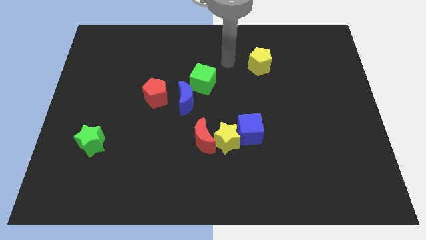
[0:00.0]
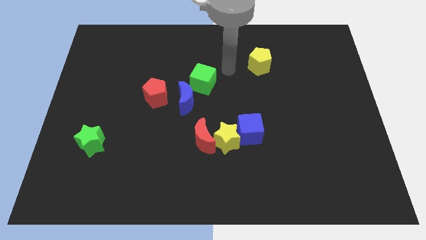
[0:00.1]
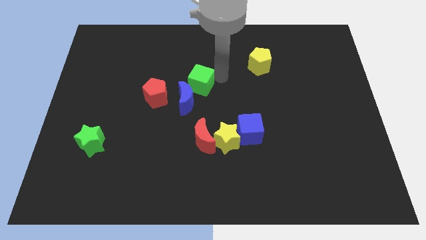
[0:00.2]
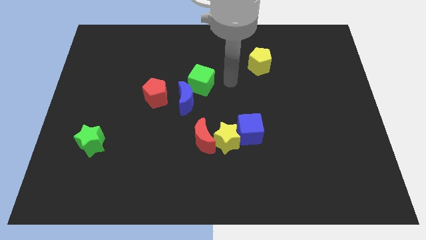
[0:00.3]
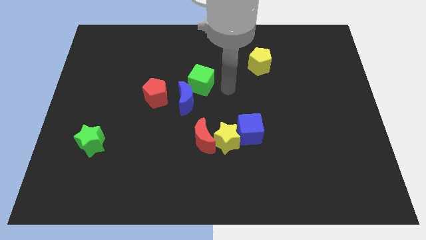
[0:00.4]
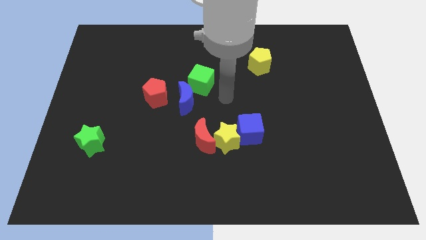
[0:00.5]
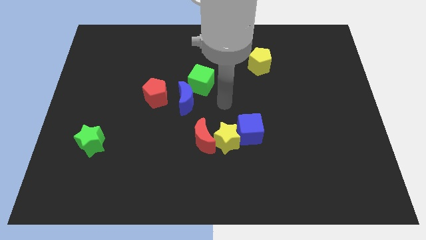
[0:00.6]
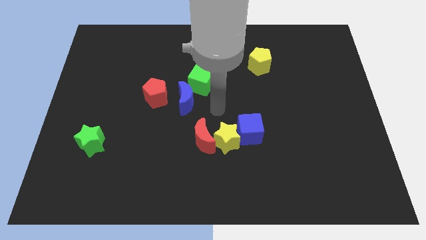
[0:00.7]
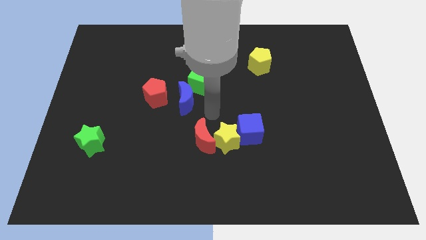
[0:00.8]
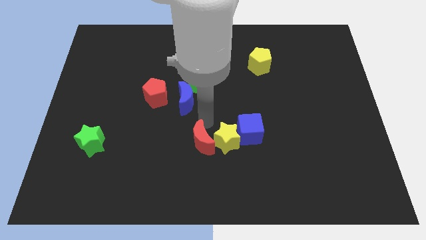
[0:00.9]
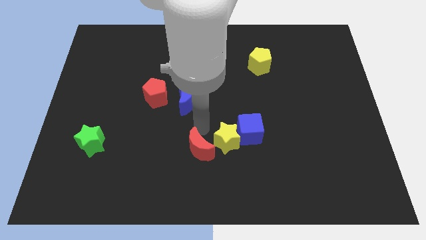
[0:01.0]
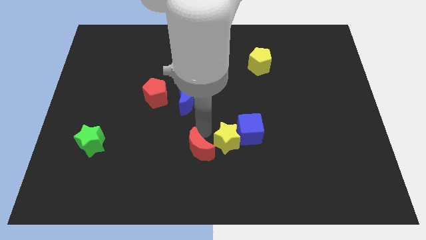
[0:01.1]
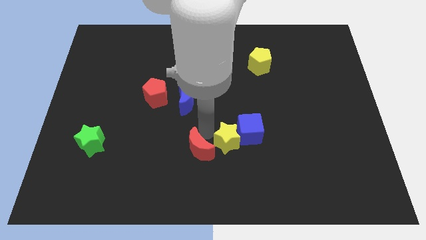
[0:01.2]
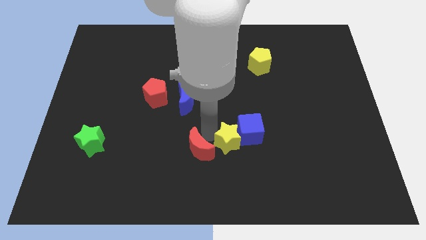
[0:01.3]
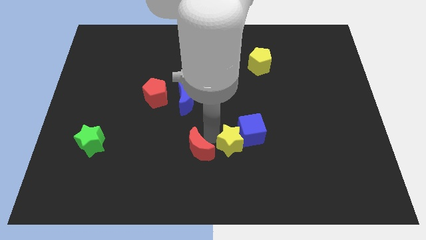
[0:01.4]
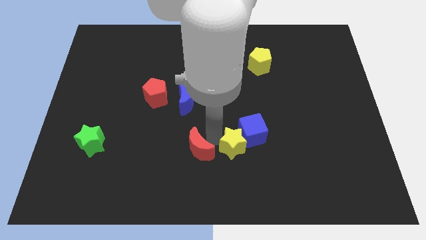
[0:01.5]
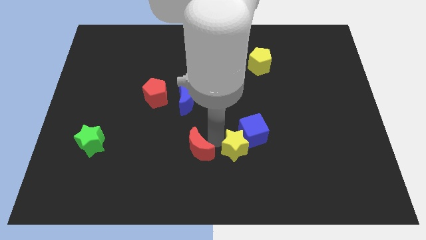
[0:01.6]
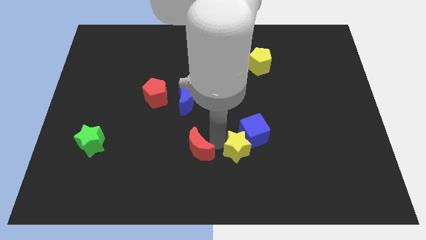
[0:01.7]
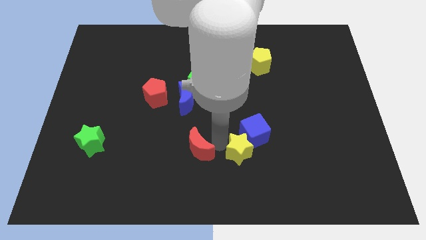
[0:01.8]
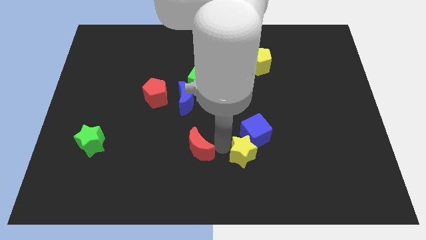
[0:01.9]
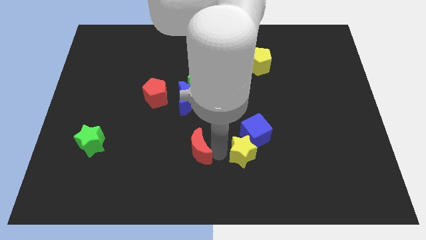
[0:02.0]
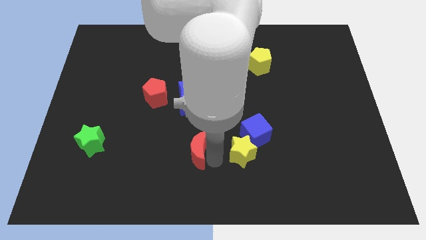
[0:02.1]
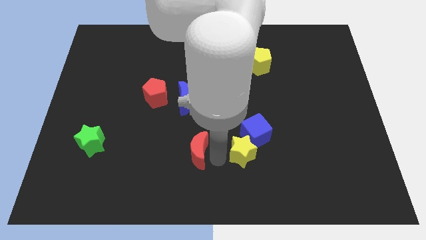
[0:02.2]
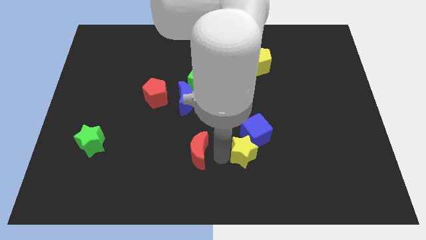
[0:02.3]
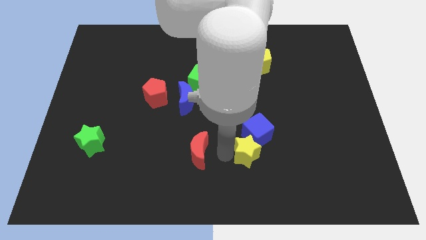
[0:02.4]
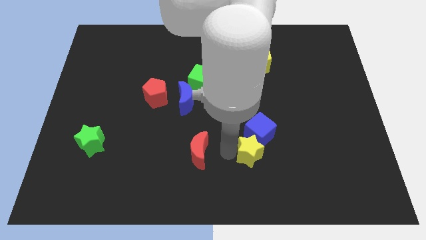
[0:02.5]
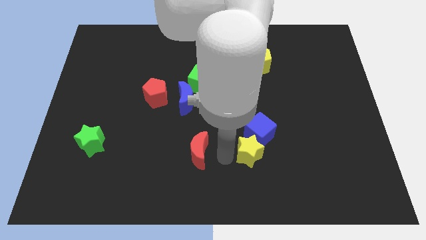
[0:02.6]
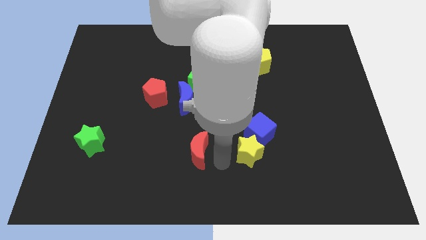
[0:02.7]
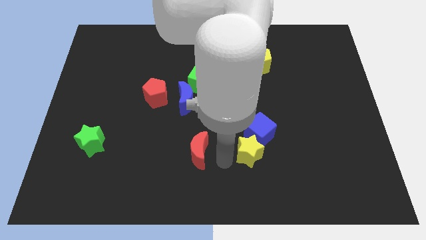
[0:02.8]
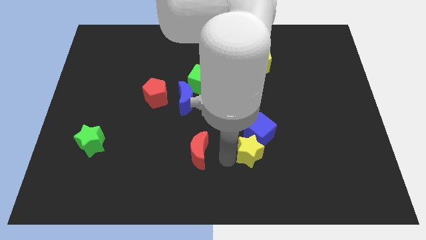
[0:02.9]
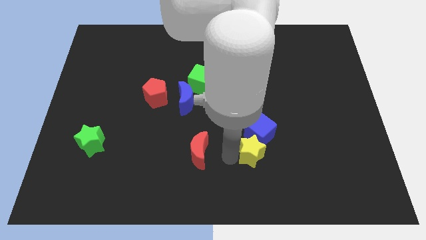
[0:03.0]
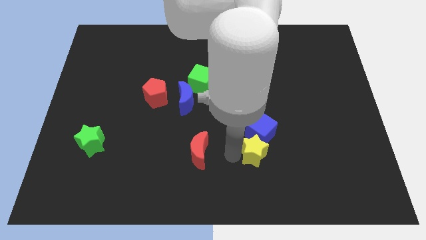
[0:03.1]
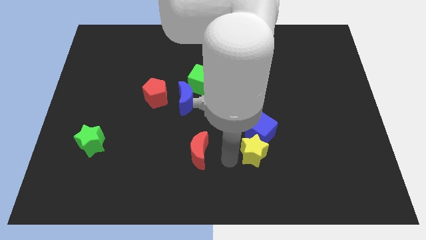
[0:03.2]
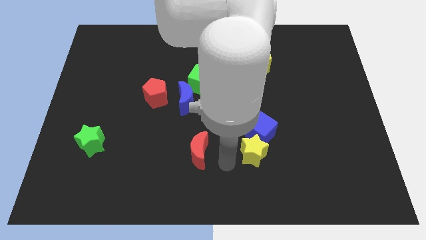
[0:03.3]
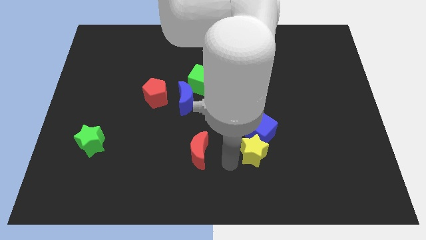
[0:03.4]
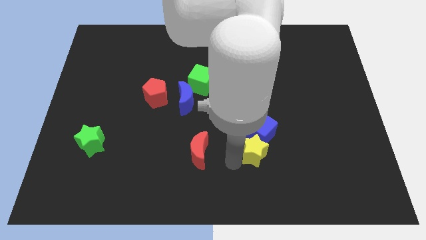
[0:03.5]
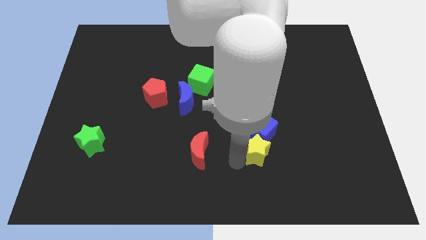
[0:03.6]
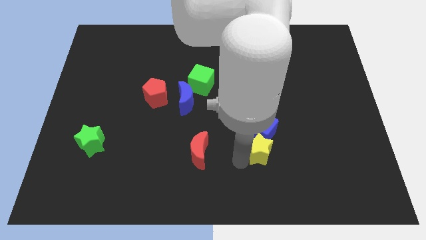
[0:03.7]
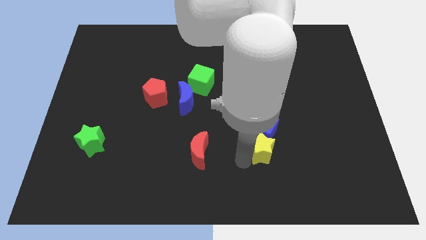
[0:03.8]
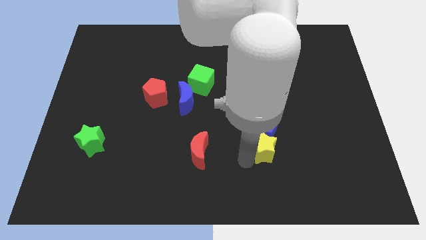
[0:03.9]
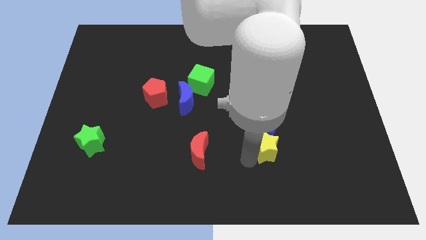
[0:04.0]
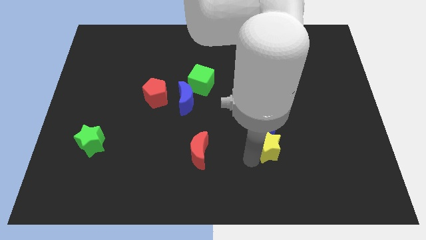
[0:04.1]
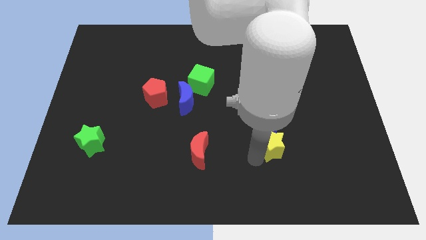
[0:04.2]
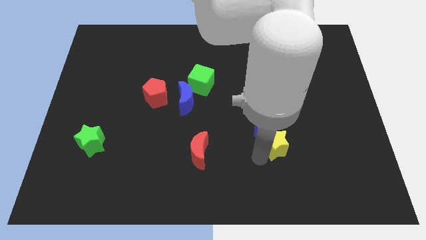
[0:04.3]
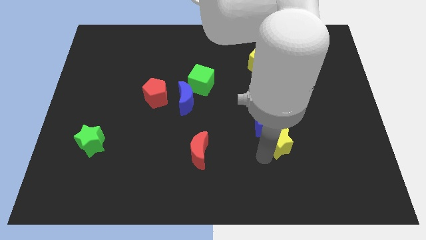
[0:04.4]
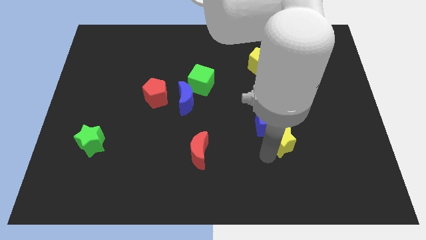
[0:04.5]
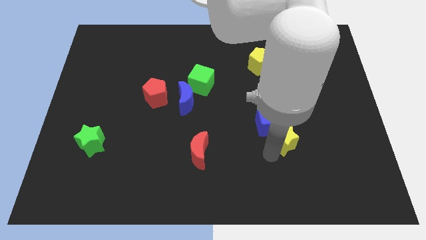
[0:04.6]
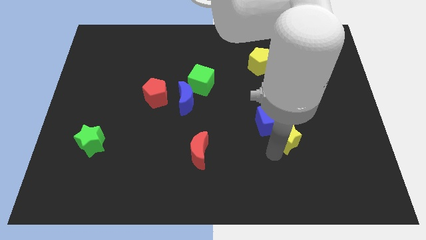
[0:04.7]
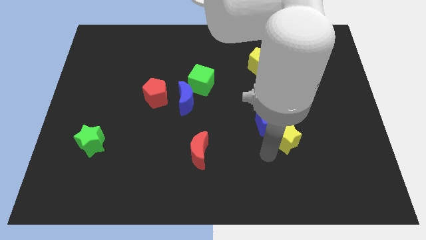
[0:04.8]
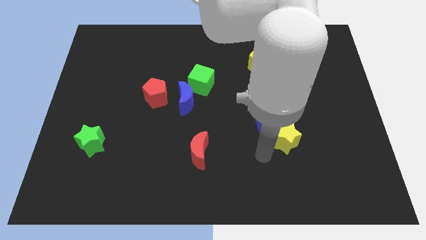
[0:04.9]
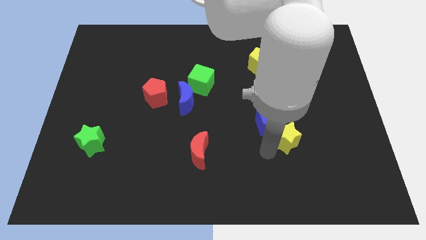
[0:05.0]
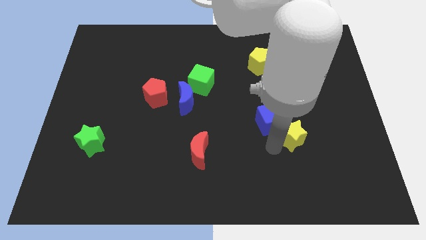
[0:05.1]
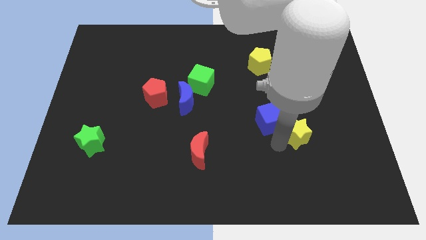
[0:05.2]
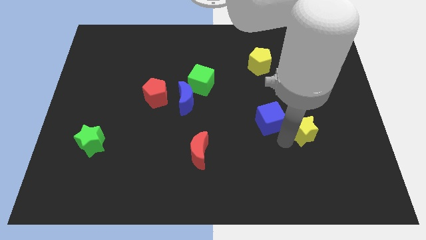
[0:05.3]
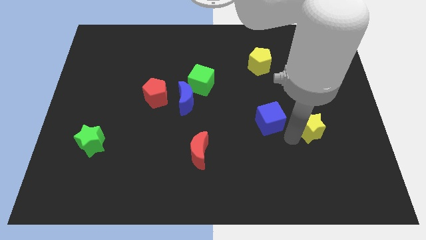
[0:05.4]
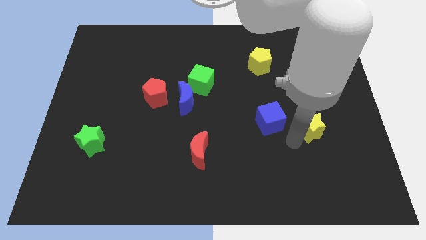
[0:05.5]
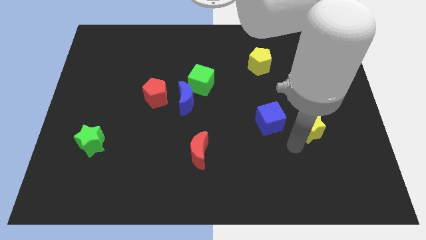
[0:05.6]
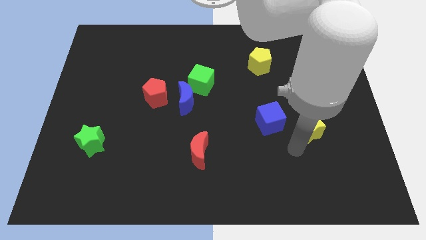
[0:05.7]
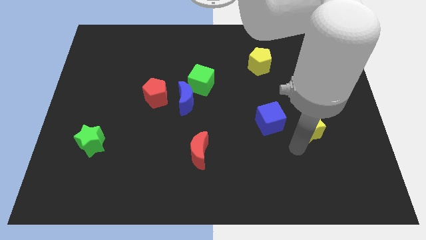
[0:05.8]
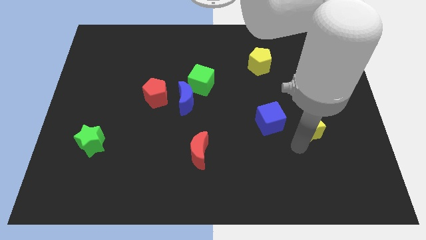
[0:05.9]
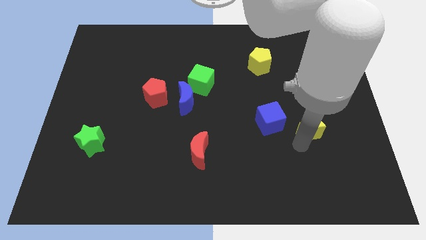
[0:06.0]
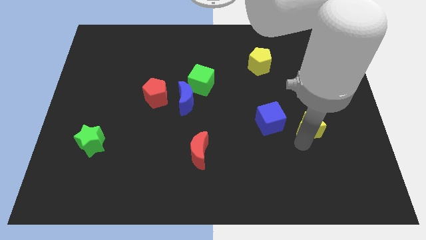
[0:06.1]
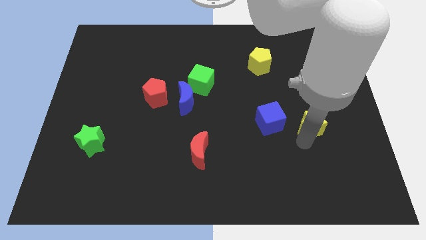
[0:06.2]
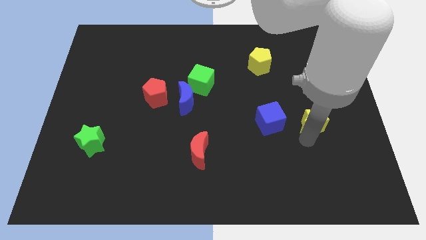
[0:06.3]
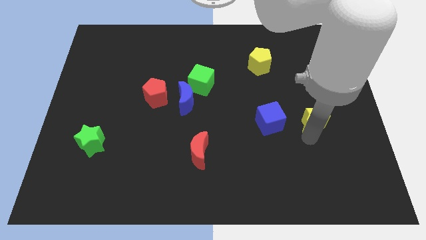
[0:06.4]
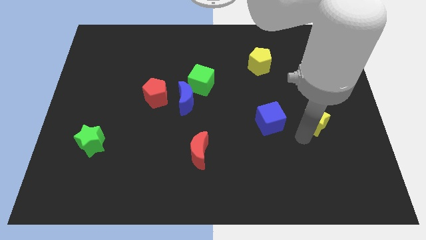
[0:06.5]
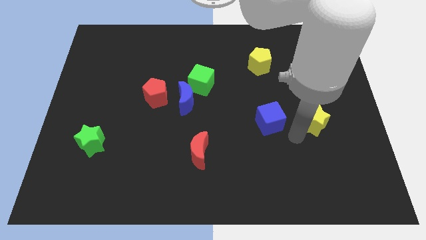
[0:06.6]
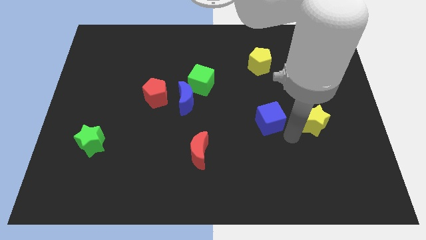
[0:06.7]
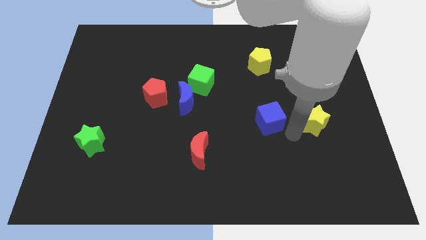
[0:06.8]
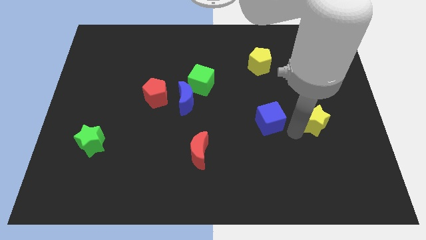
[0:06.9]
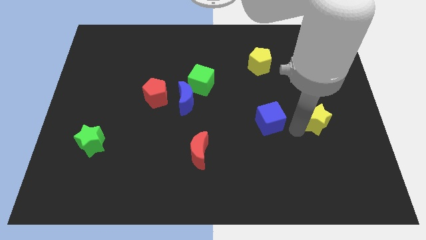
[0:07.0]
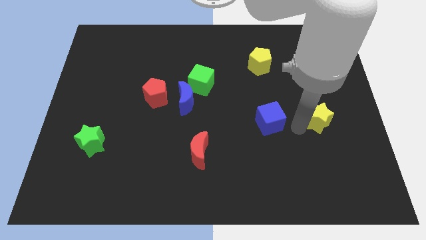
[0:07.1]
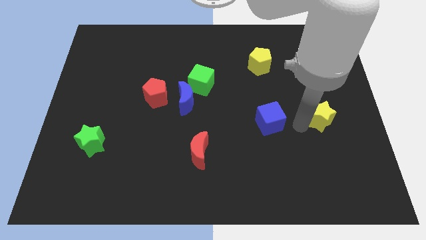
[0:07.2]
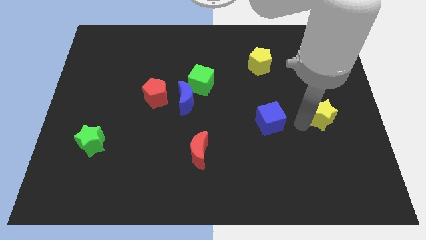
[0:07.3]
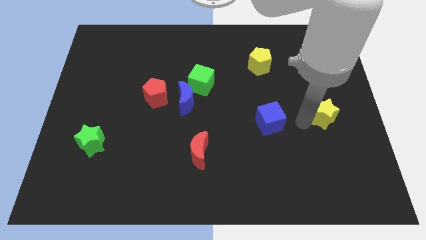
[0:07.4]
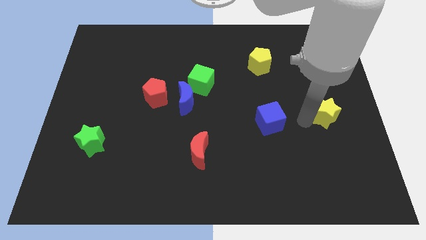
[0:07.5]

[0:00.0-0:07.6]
push the yellow star to the center right
